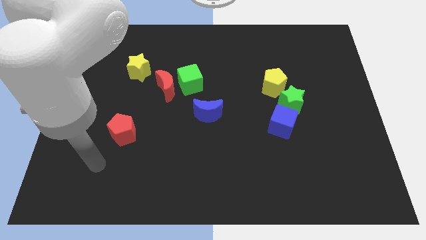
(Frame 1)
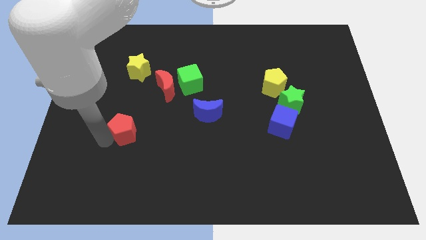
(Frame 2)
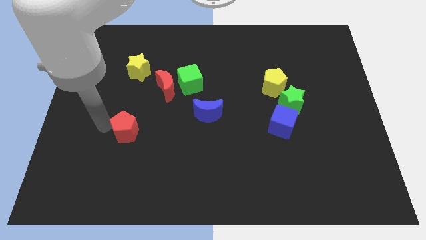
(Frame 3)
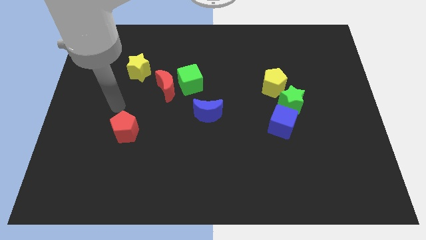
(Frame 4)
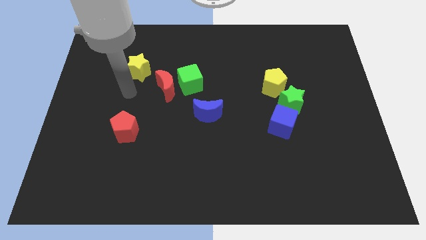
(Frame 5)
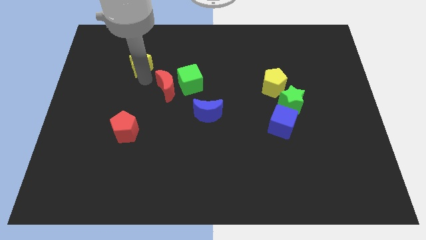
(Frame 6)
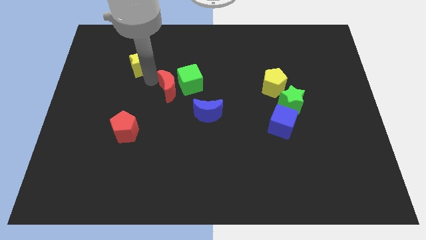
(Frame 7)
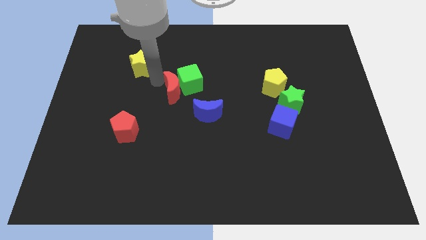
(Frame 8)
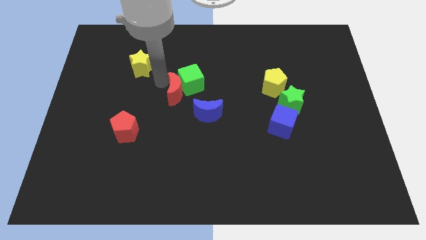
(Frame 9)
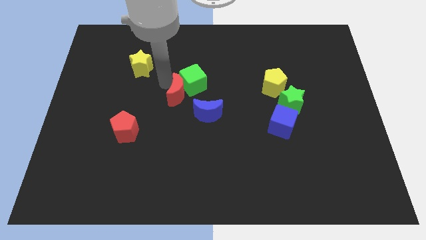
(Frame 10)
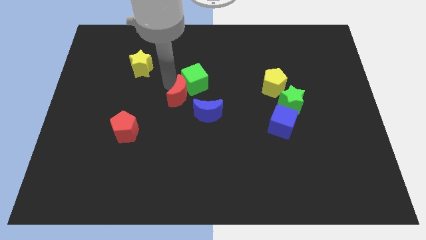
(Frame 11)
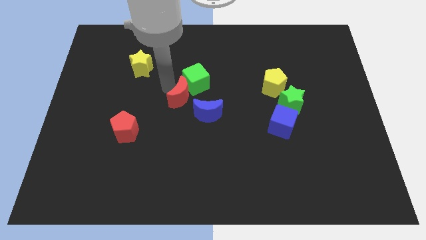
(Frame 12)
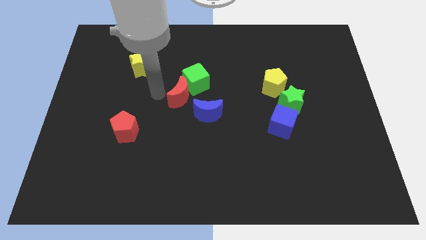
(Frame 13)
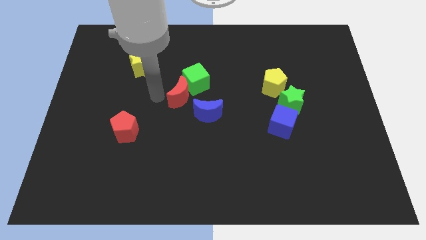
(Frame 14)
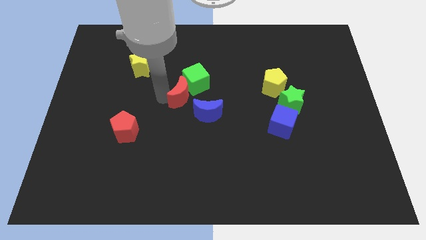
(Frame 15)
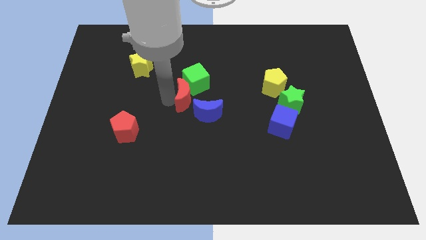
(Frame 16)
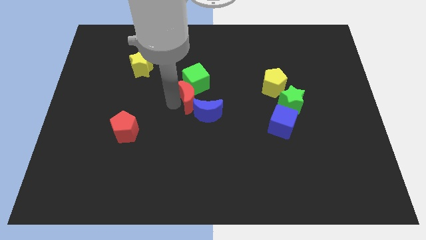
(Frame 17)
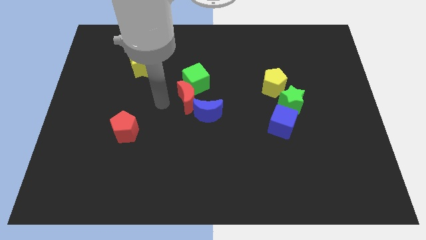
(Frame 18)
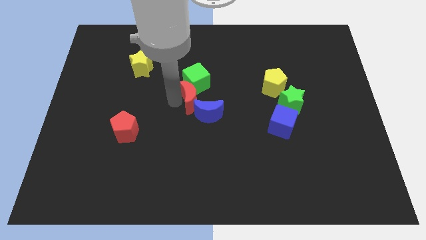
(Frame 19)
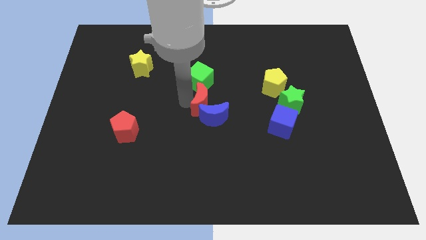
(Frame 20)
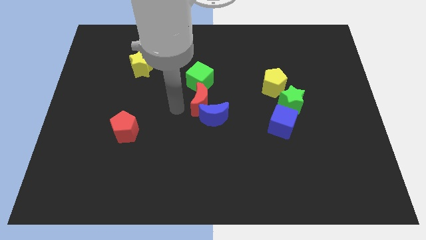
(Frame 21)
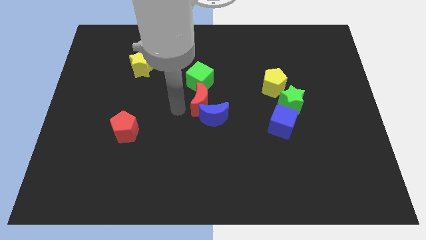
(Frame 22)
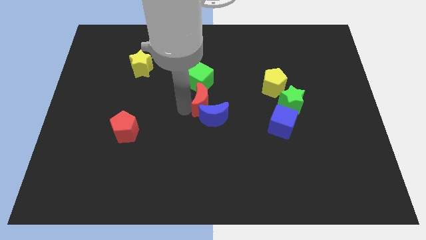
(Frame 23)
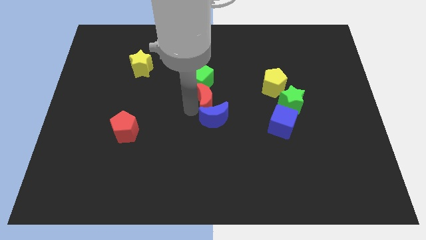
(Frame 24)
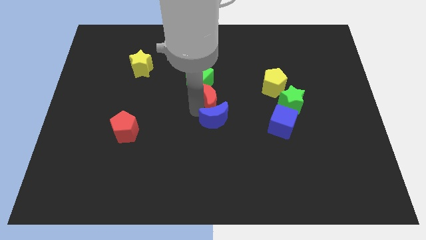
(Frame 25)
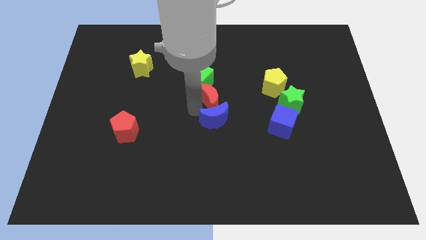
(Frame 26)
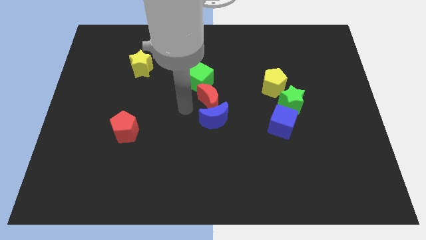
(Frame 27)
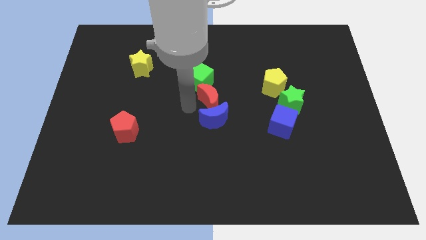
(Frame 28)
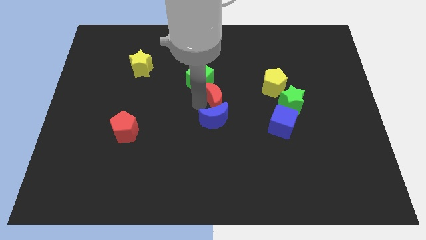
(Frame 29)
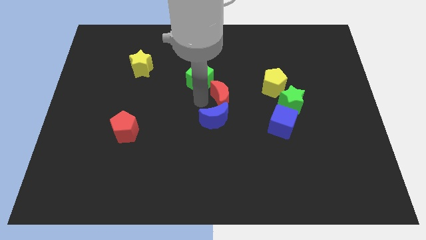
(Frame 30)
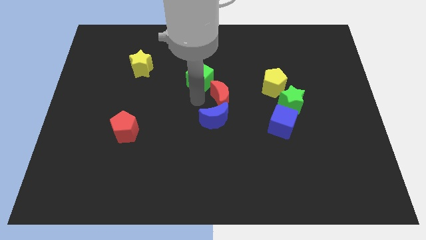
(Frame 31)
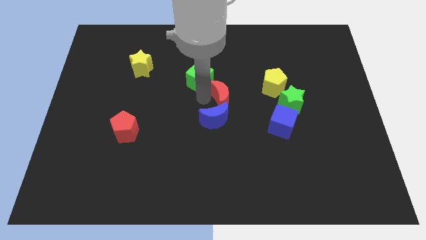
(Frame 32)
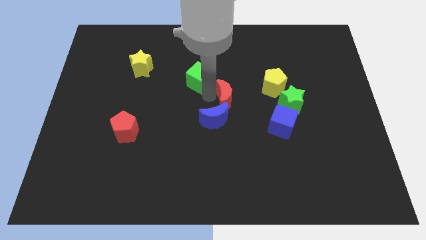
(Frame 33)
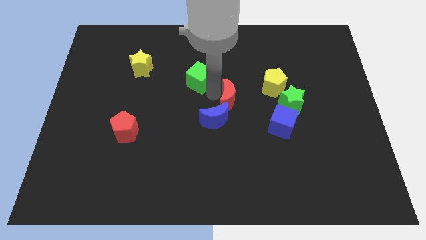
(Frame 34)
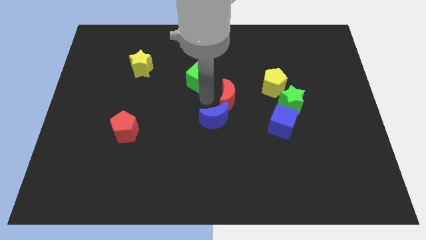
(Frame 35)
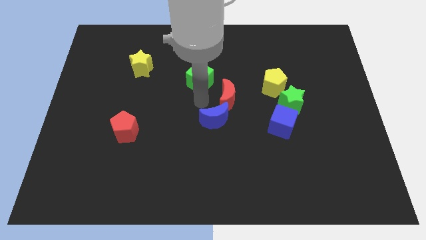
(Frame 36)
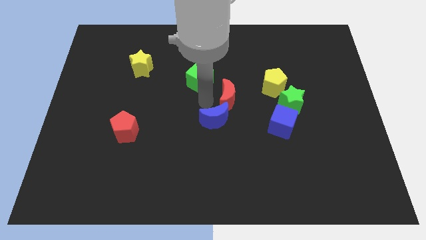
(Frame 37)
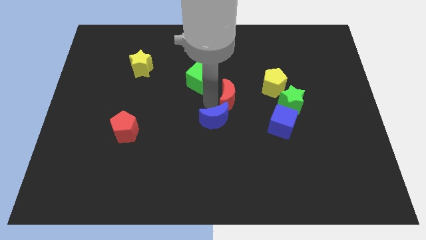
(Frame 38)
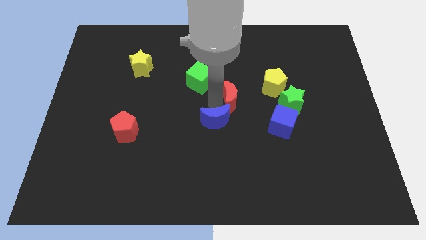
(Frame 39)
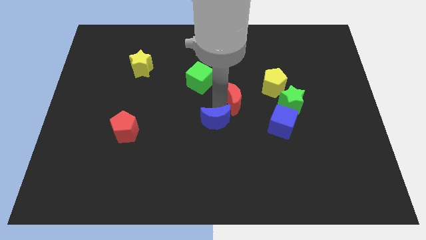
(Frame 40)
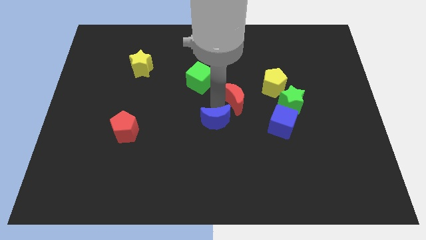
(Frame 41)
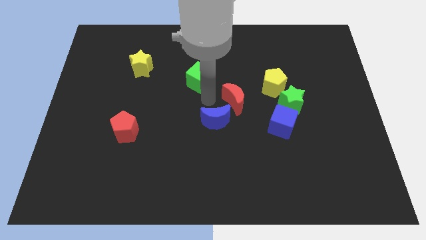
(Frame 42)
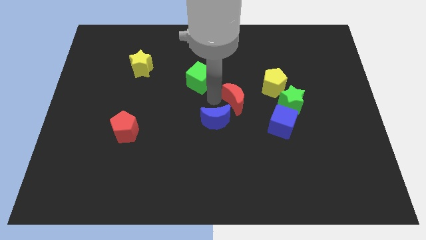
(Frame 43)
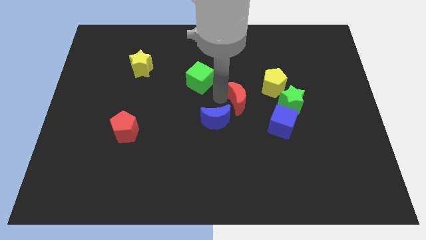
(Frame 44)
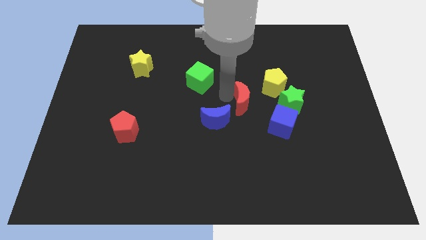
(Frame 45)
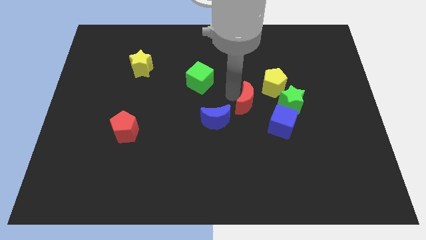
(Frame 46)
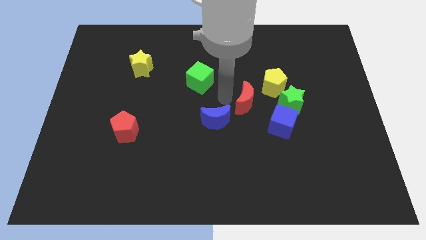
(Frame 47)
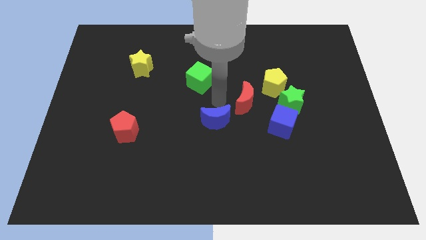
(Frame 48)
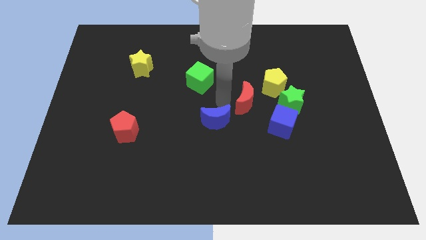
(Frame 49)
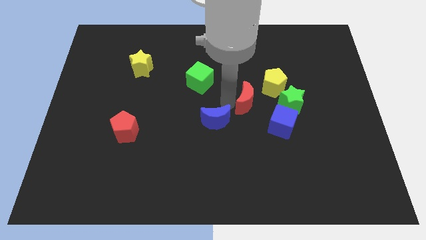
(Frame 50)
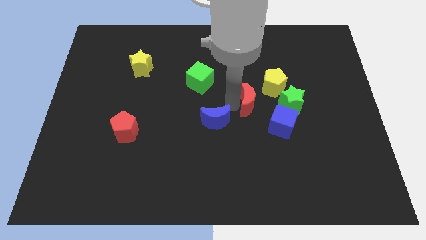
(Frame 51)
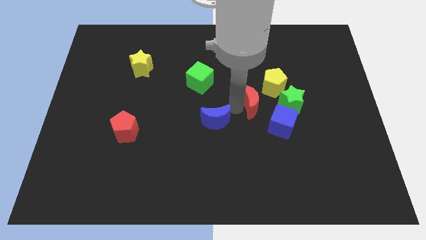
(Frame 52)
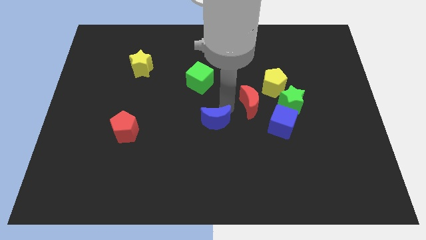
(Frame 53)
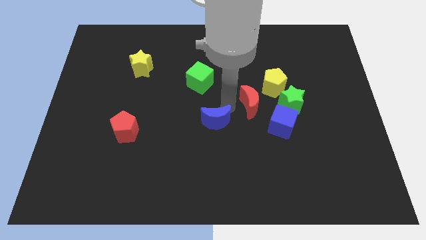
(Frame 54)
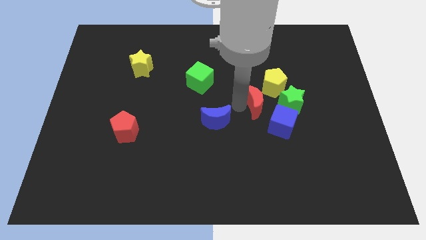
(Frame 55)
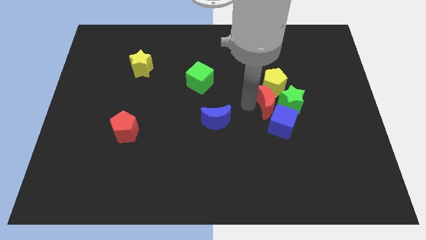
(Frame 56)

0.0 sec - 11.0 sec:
move the red moon towards the green star

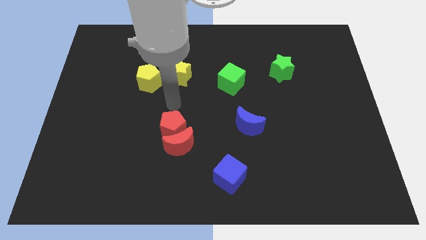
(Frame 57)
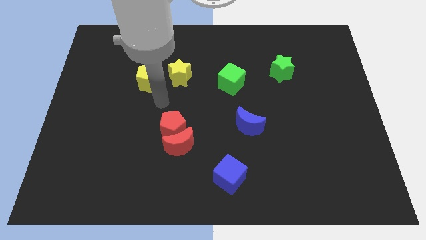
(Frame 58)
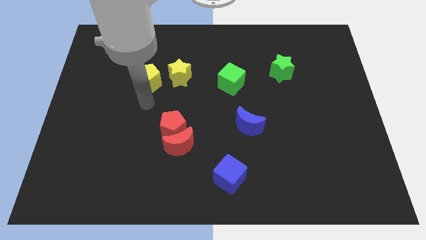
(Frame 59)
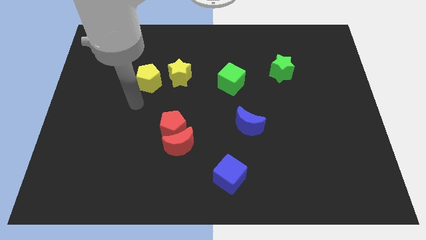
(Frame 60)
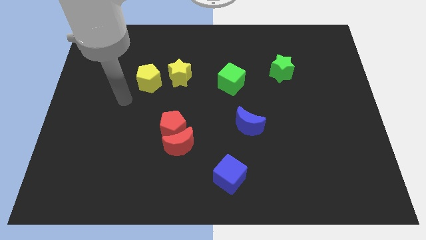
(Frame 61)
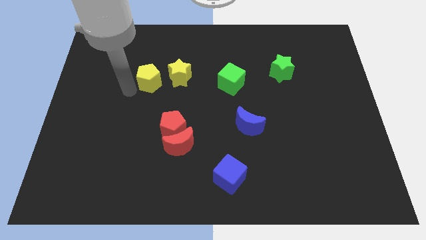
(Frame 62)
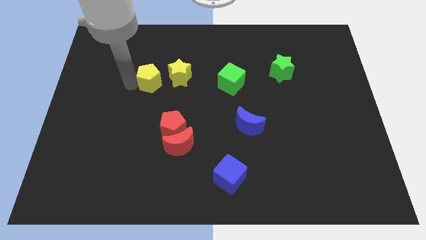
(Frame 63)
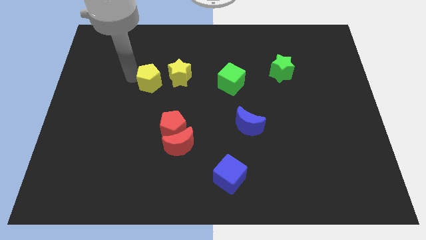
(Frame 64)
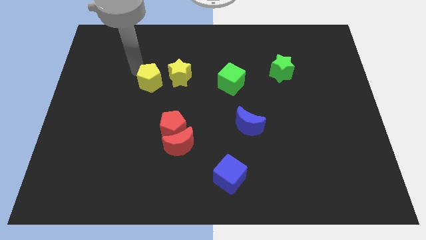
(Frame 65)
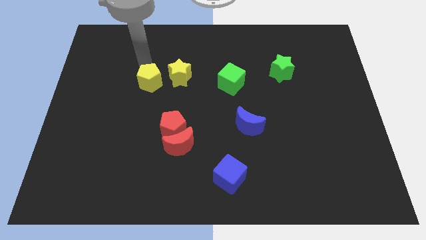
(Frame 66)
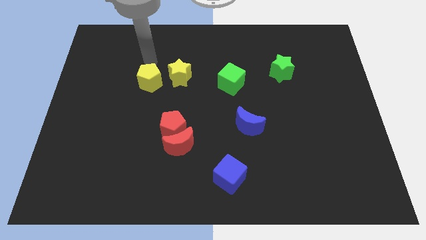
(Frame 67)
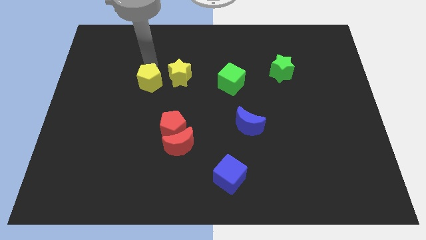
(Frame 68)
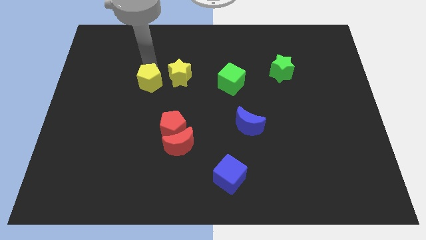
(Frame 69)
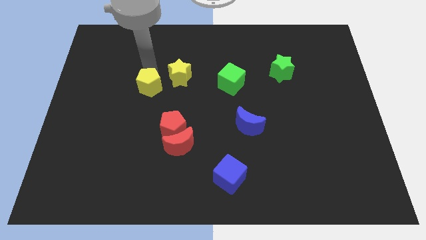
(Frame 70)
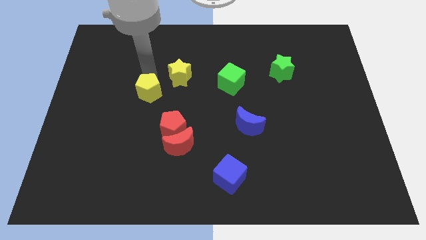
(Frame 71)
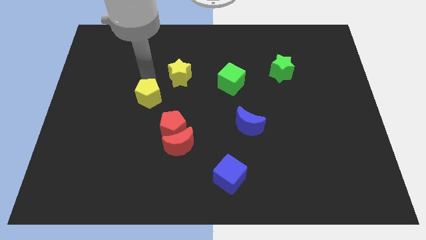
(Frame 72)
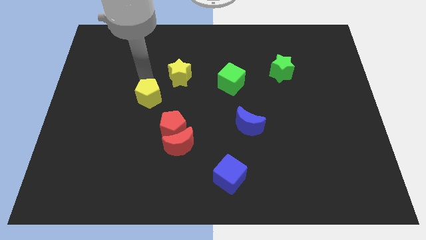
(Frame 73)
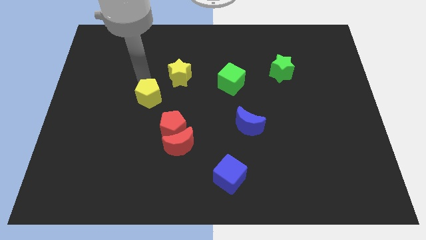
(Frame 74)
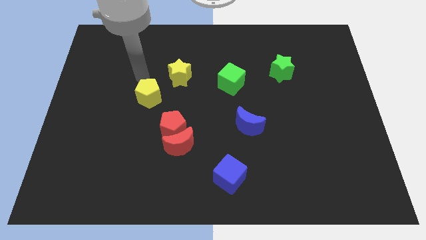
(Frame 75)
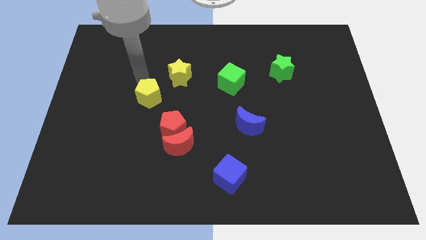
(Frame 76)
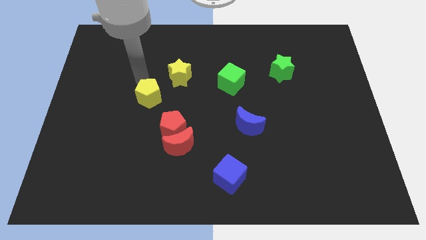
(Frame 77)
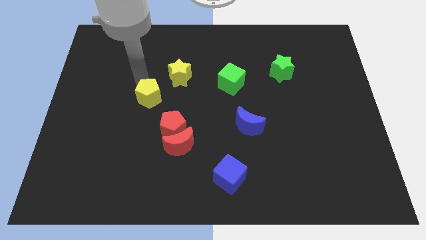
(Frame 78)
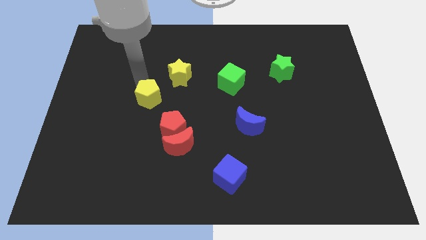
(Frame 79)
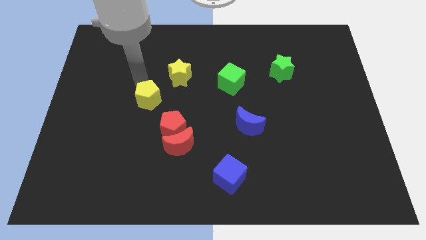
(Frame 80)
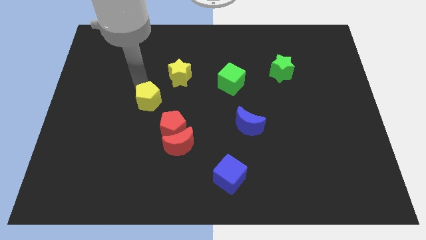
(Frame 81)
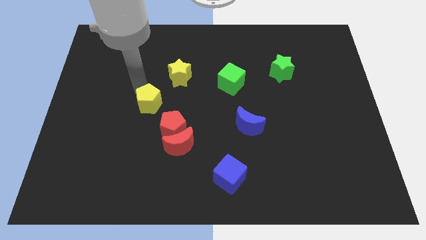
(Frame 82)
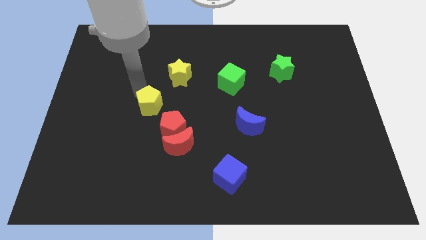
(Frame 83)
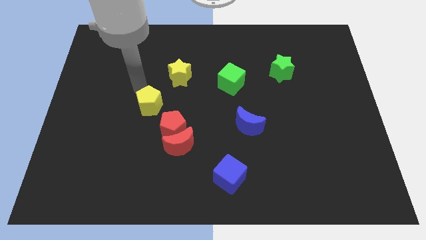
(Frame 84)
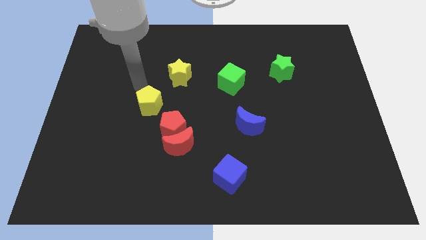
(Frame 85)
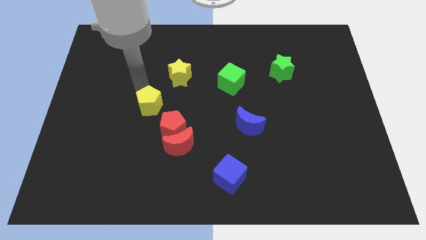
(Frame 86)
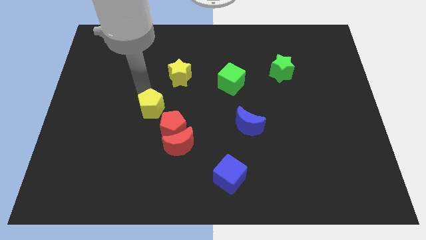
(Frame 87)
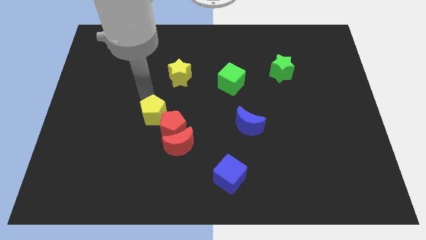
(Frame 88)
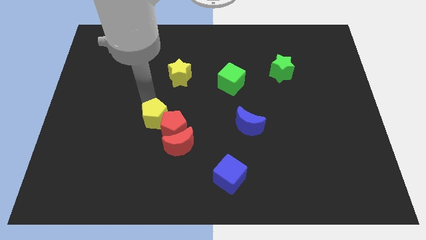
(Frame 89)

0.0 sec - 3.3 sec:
put the yellow pentagon close to the red pentagon
